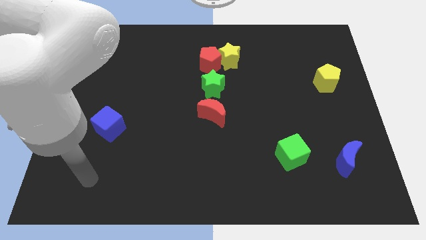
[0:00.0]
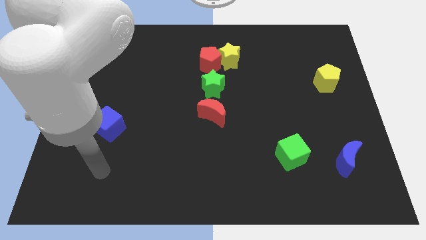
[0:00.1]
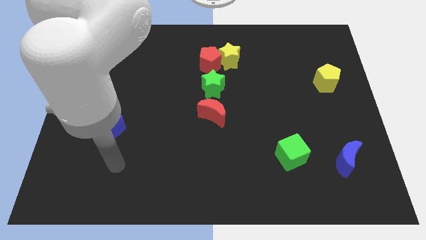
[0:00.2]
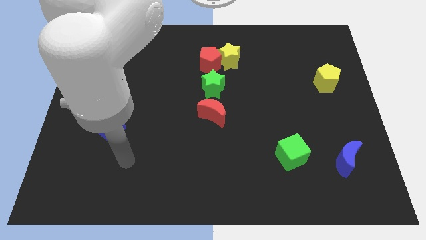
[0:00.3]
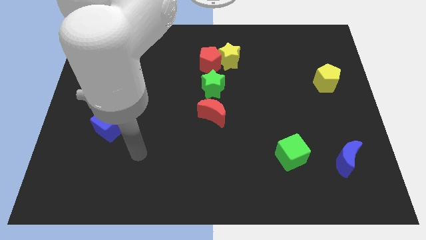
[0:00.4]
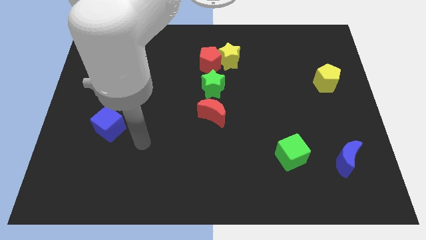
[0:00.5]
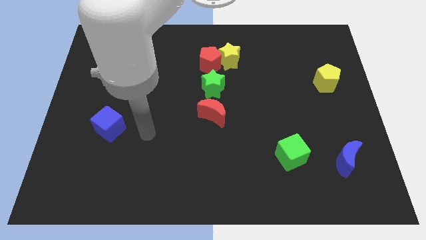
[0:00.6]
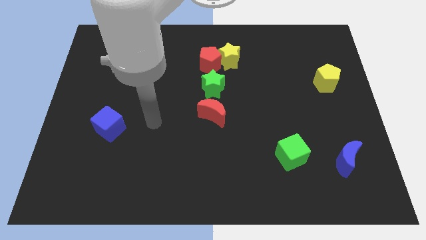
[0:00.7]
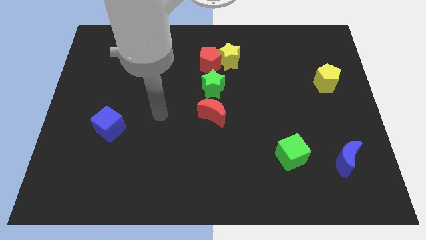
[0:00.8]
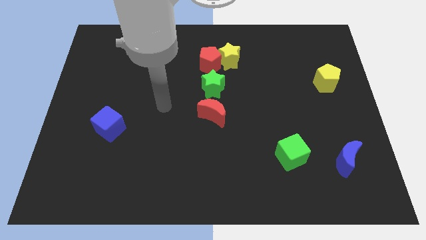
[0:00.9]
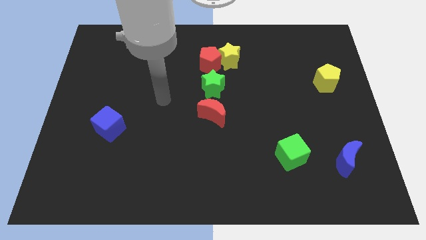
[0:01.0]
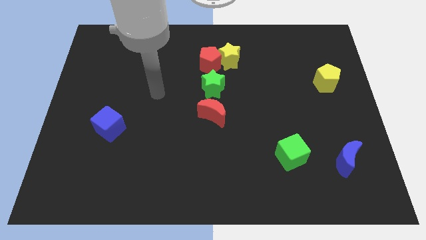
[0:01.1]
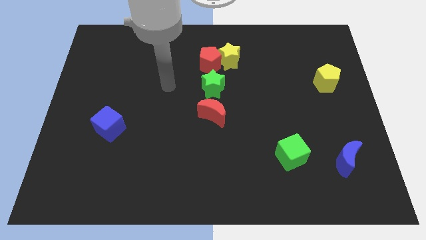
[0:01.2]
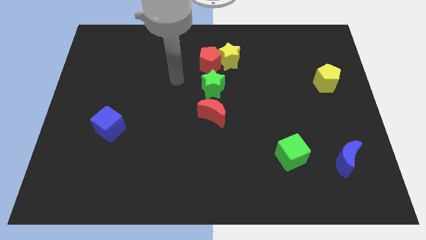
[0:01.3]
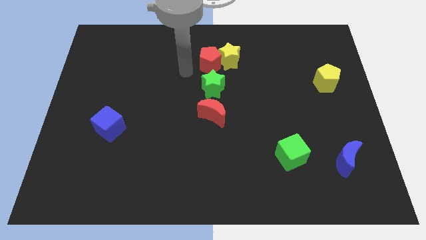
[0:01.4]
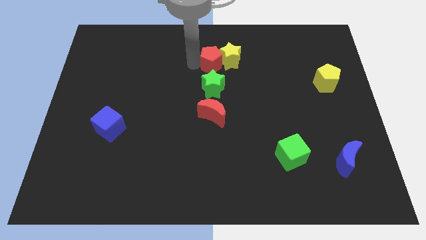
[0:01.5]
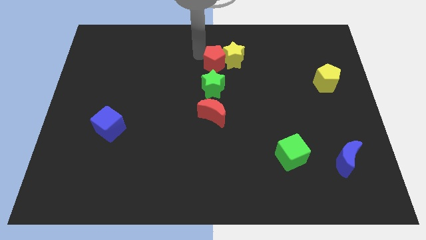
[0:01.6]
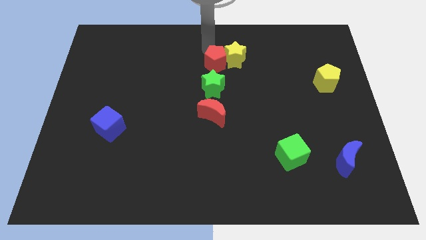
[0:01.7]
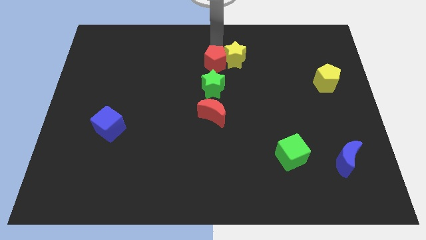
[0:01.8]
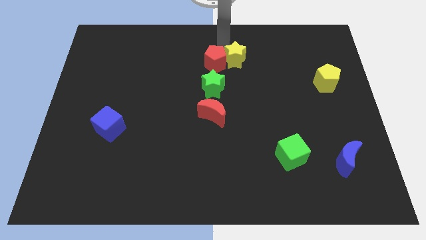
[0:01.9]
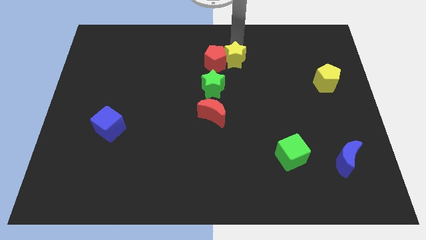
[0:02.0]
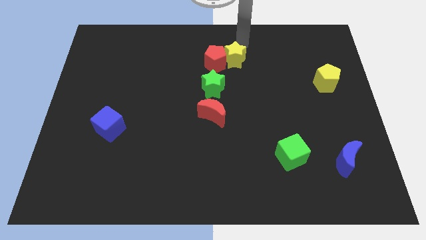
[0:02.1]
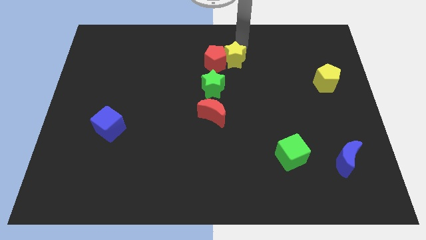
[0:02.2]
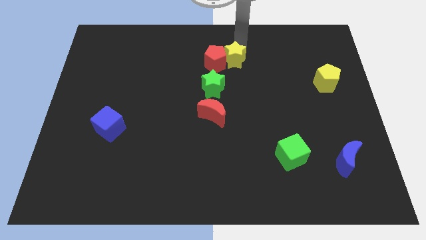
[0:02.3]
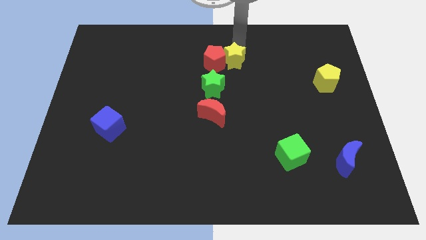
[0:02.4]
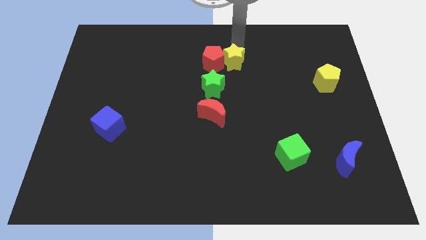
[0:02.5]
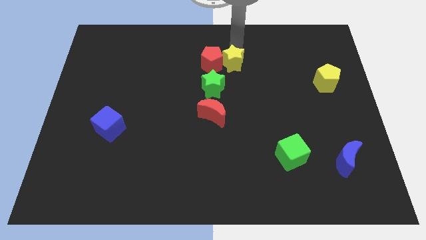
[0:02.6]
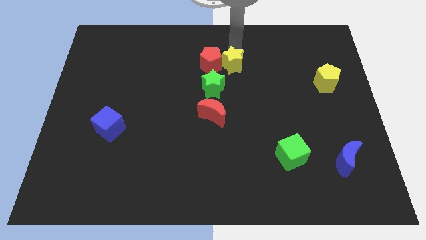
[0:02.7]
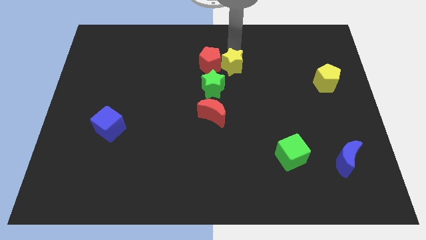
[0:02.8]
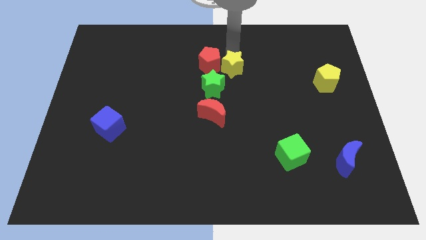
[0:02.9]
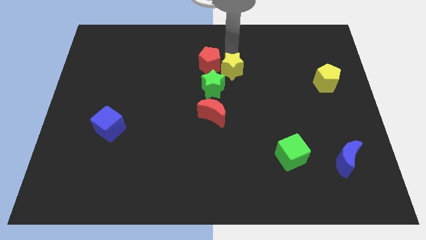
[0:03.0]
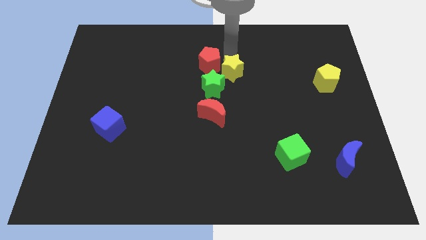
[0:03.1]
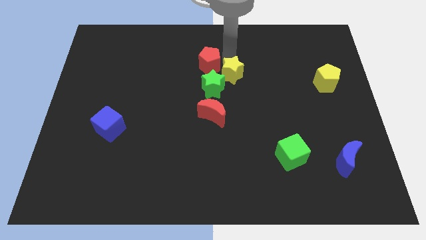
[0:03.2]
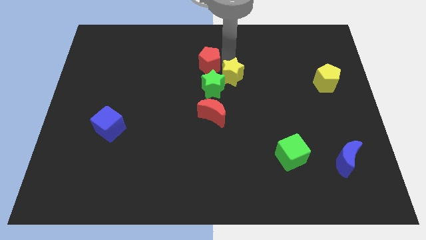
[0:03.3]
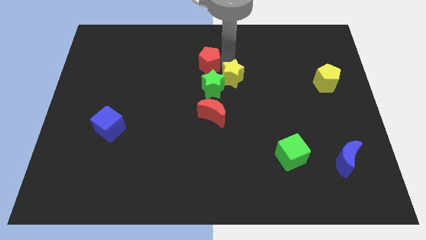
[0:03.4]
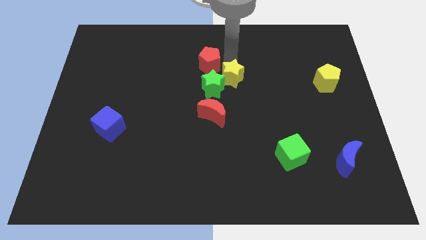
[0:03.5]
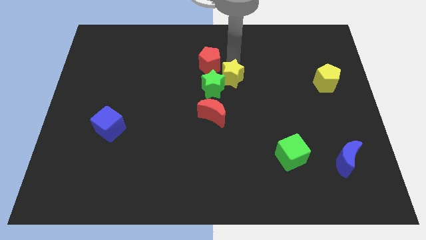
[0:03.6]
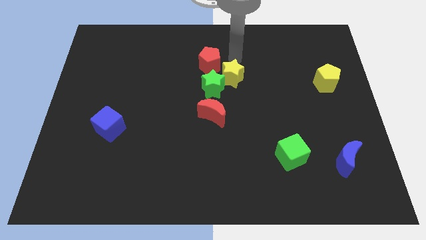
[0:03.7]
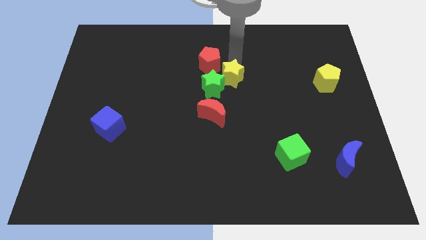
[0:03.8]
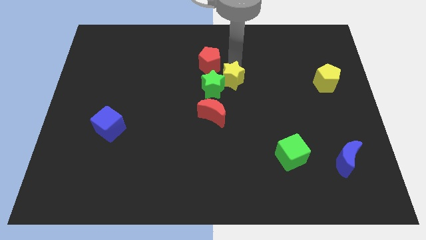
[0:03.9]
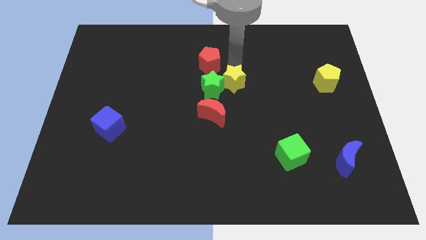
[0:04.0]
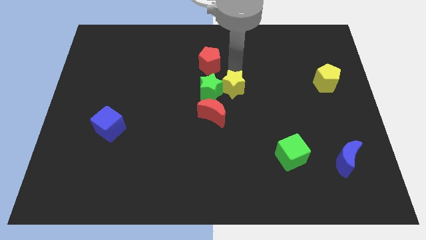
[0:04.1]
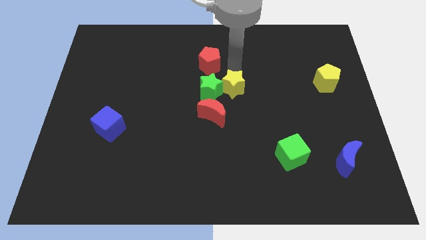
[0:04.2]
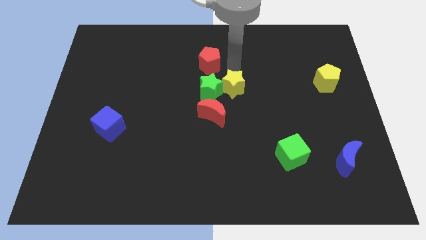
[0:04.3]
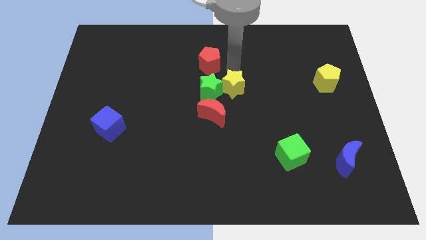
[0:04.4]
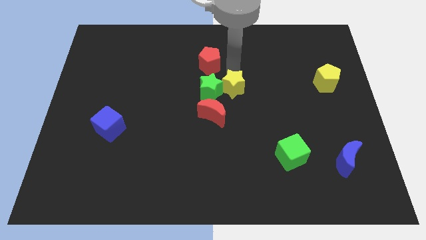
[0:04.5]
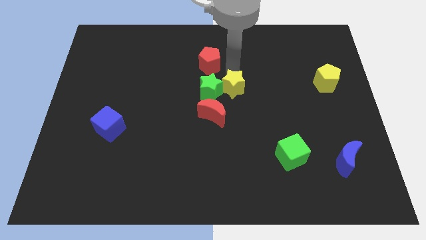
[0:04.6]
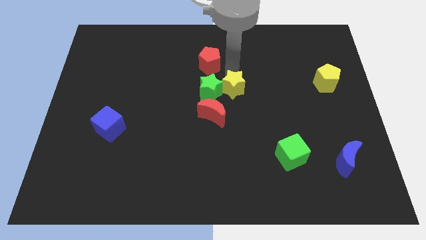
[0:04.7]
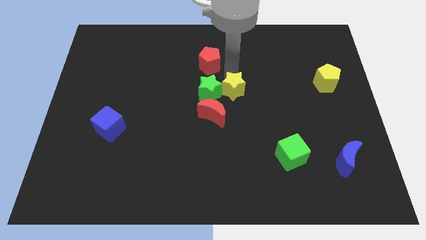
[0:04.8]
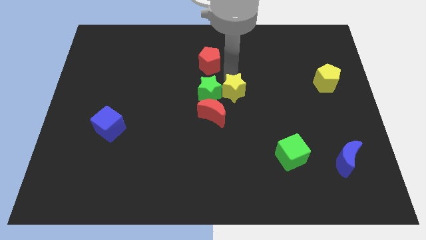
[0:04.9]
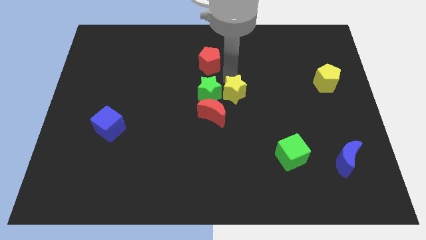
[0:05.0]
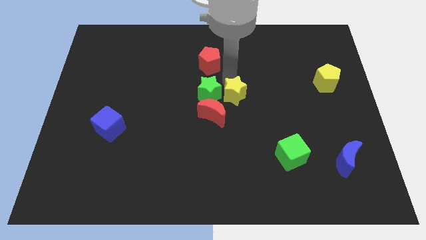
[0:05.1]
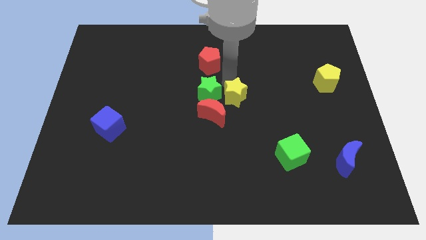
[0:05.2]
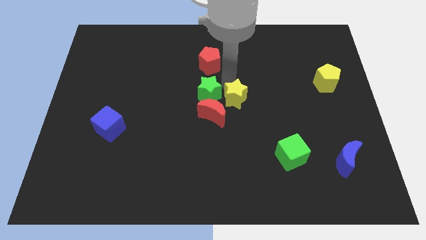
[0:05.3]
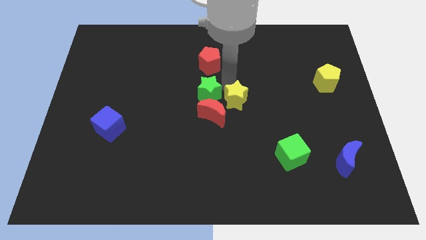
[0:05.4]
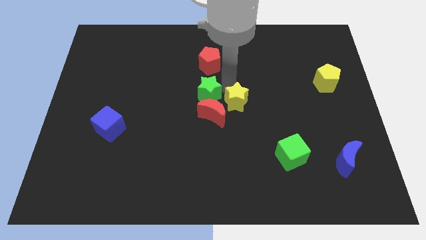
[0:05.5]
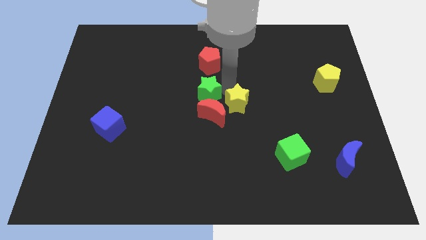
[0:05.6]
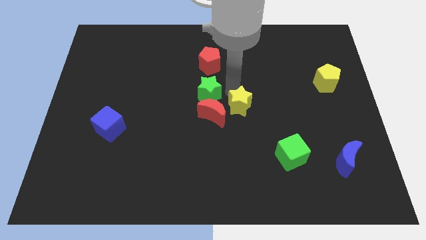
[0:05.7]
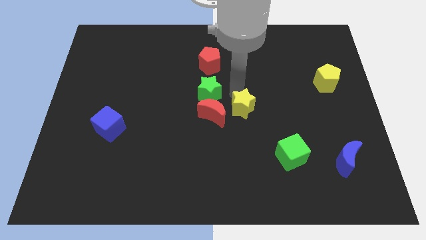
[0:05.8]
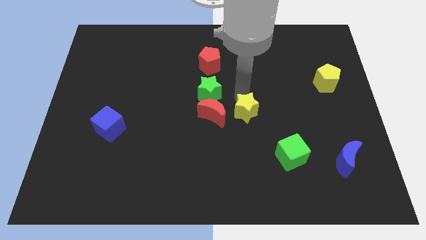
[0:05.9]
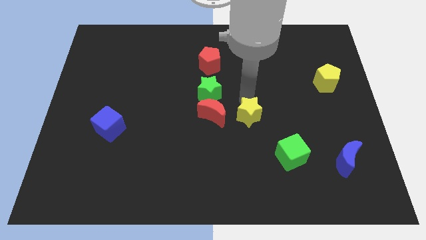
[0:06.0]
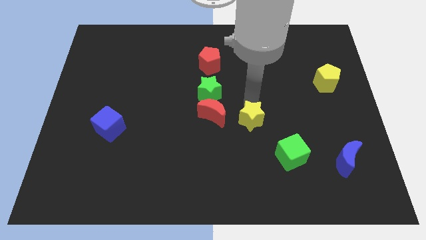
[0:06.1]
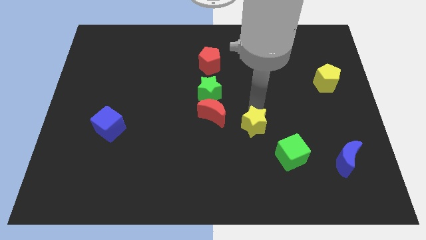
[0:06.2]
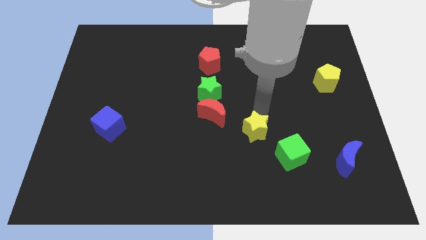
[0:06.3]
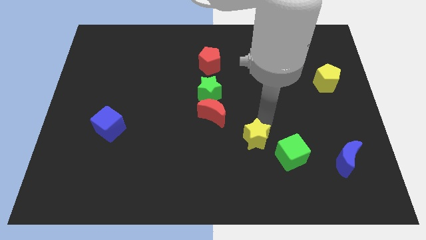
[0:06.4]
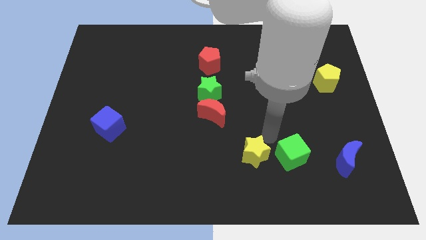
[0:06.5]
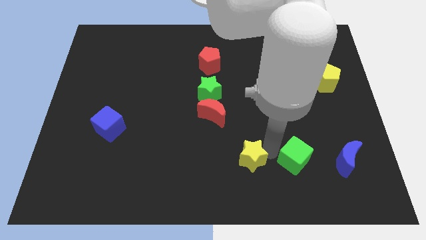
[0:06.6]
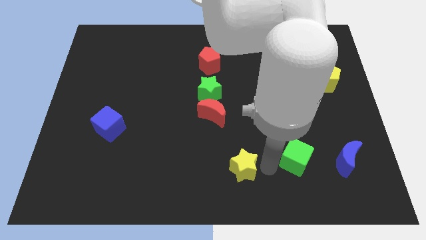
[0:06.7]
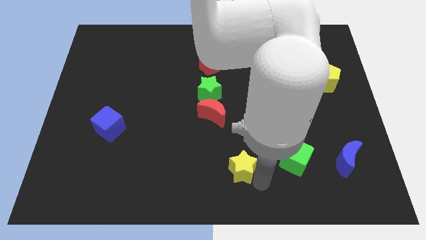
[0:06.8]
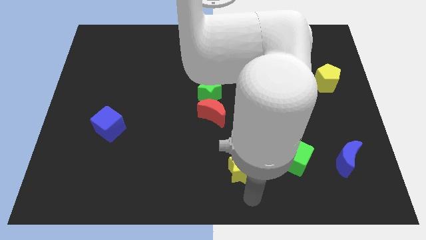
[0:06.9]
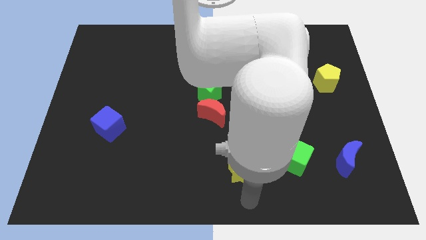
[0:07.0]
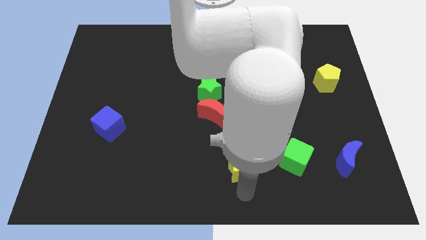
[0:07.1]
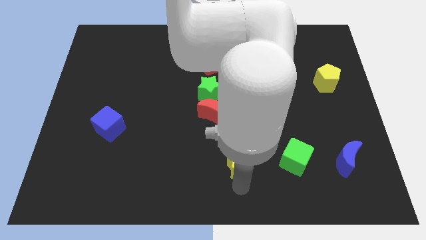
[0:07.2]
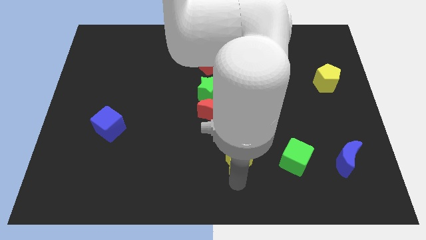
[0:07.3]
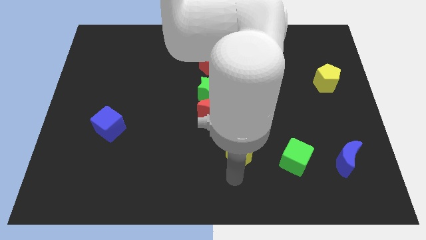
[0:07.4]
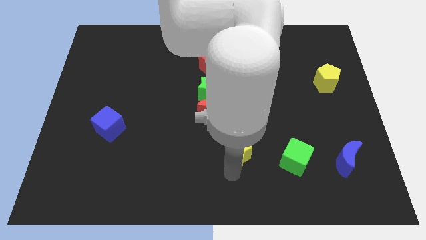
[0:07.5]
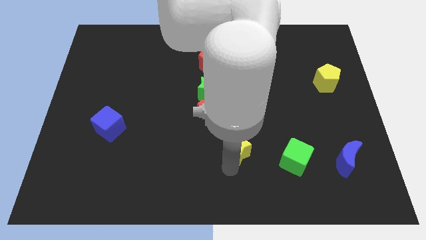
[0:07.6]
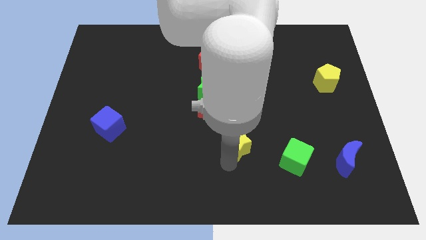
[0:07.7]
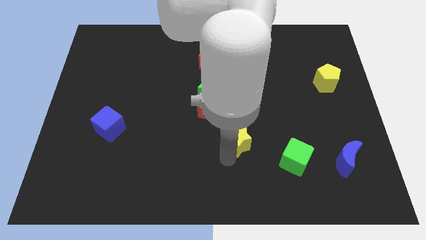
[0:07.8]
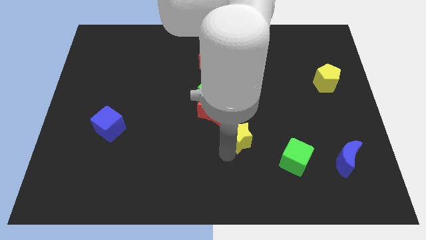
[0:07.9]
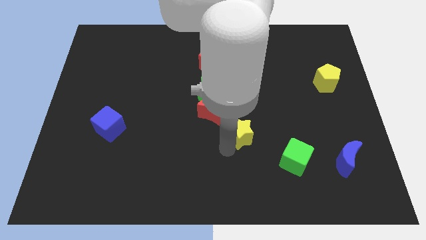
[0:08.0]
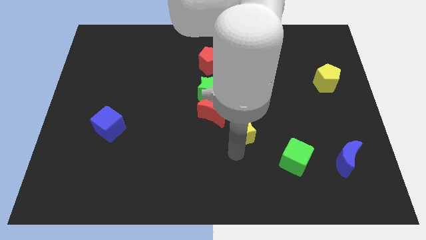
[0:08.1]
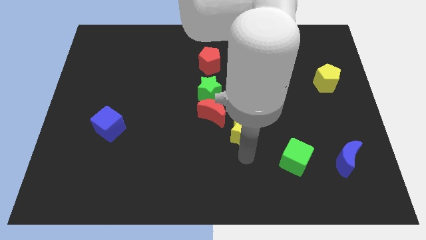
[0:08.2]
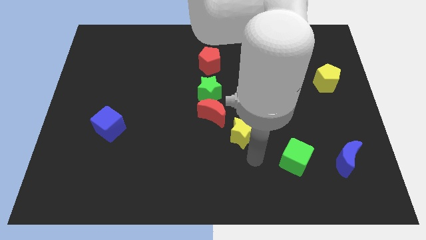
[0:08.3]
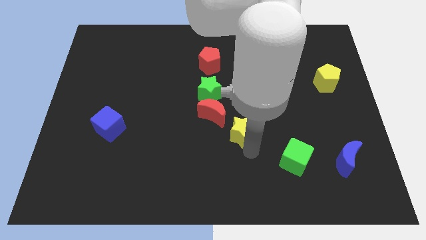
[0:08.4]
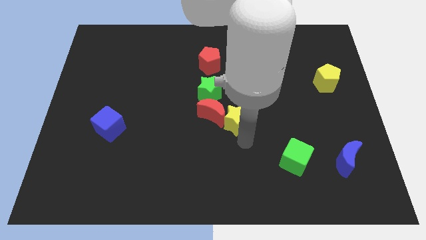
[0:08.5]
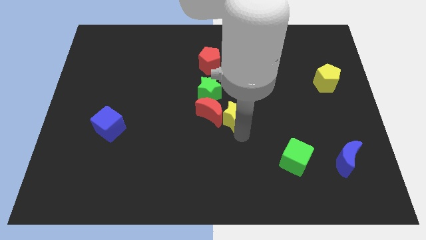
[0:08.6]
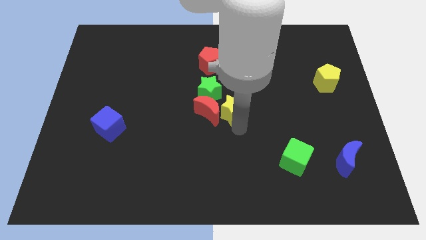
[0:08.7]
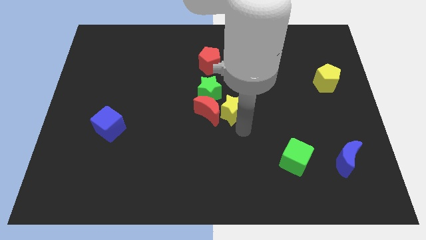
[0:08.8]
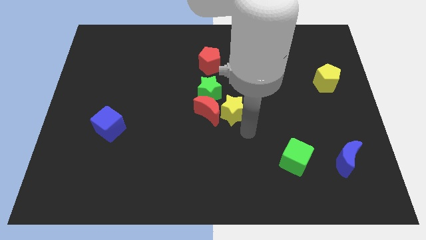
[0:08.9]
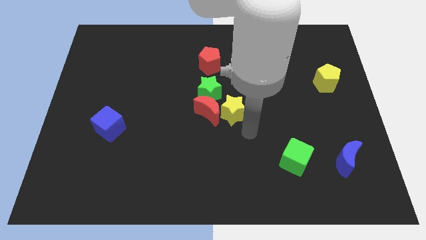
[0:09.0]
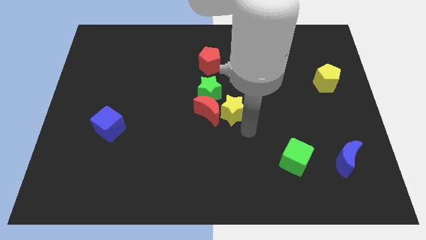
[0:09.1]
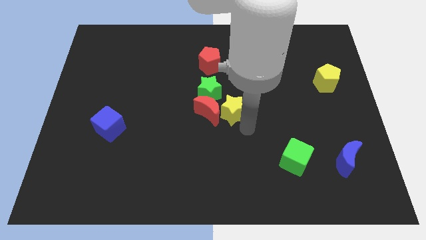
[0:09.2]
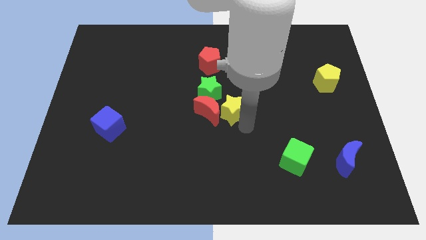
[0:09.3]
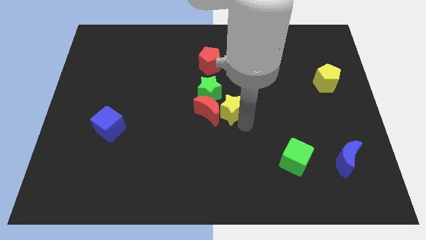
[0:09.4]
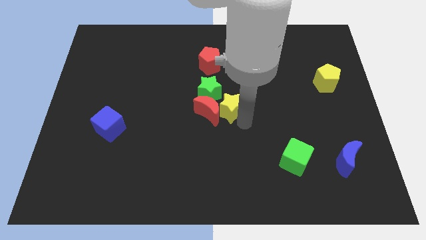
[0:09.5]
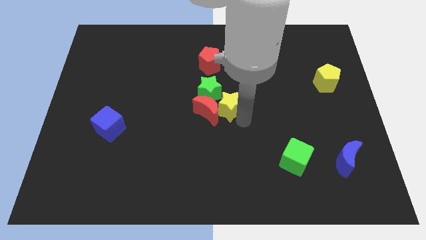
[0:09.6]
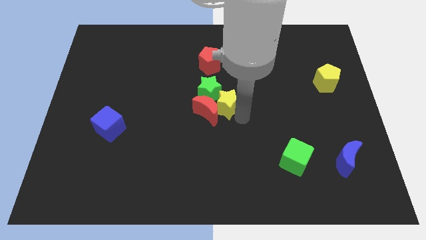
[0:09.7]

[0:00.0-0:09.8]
slide the yellow star a little bit downwards and to the left
